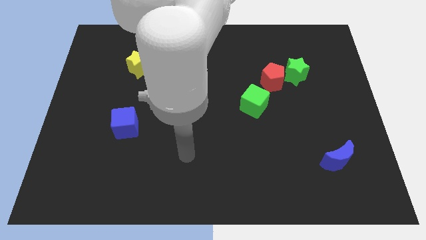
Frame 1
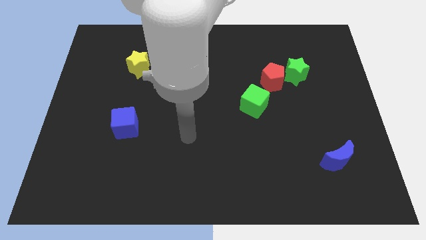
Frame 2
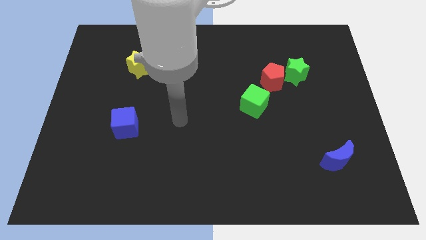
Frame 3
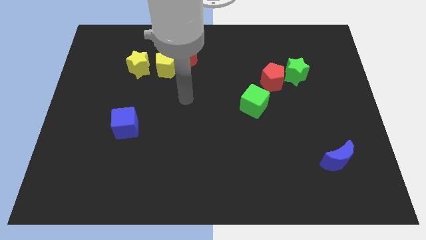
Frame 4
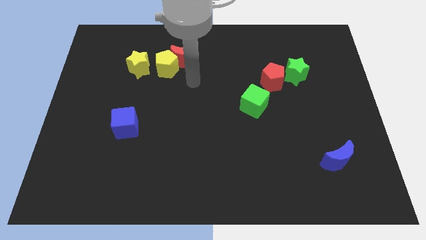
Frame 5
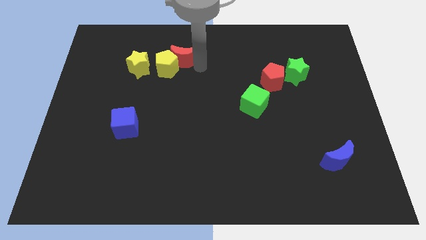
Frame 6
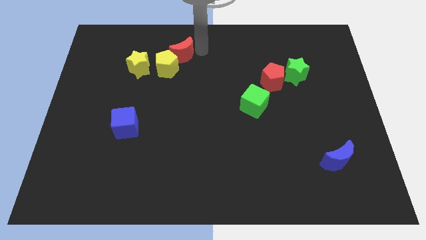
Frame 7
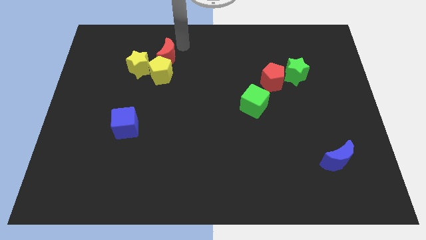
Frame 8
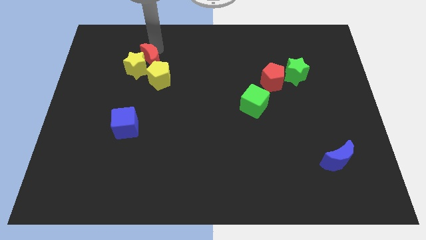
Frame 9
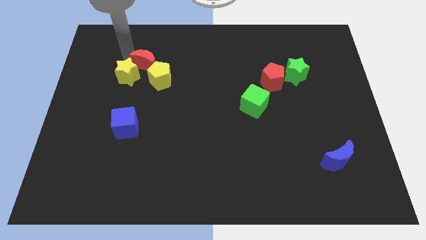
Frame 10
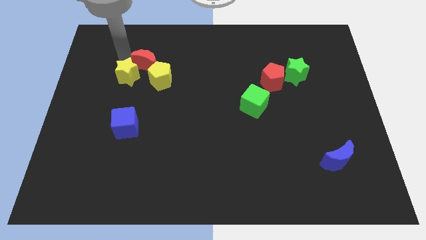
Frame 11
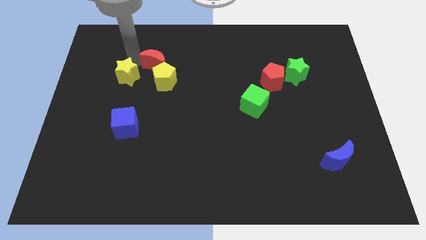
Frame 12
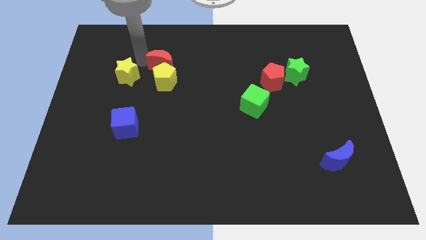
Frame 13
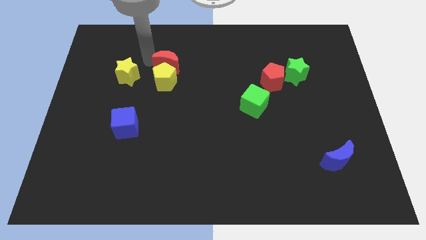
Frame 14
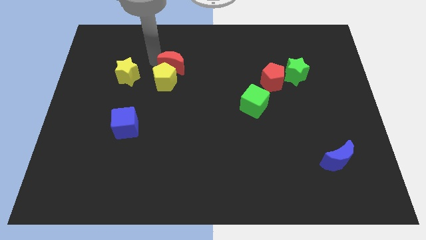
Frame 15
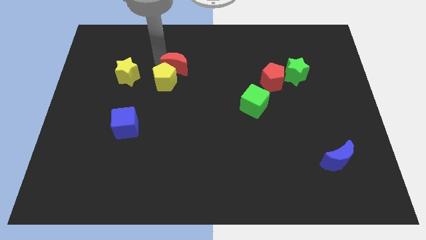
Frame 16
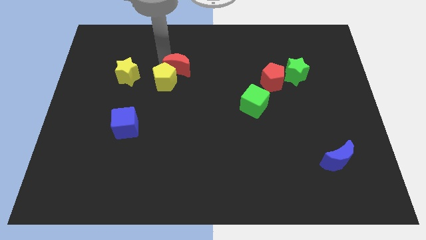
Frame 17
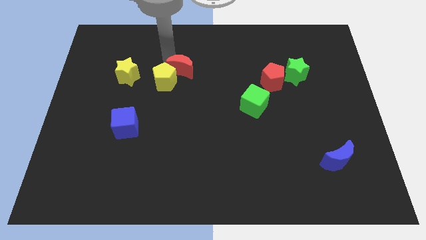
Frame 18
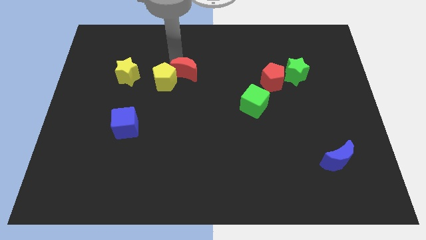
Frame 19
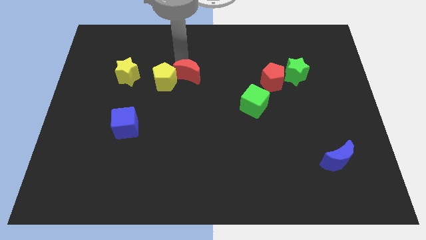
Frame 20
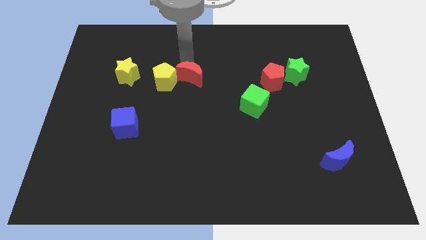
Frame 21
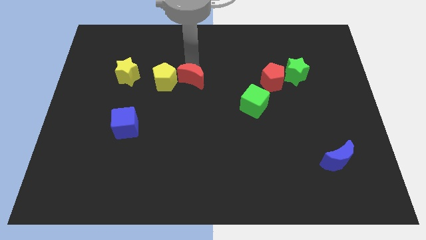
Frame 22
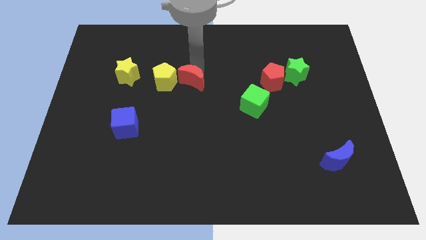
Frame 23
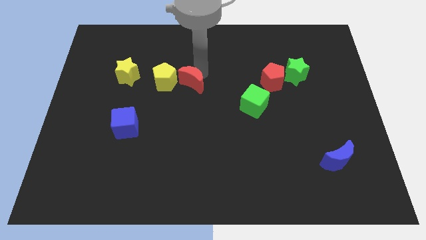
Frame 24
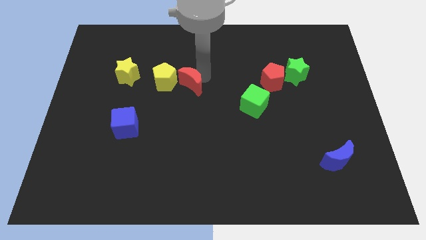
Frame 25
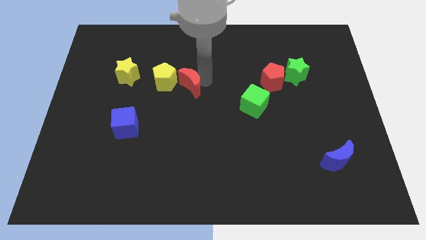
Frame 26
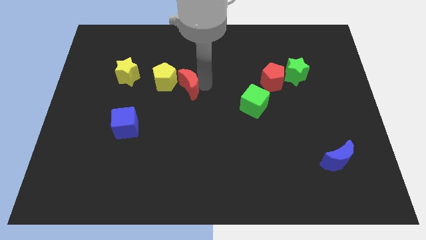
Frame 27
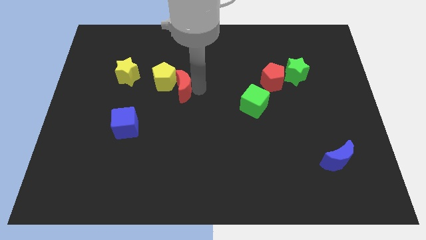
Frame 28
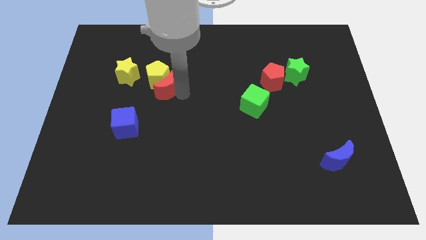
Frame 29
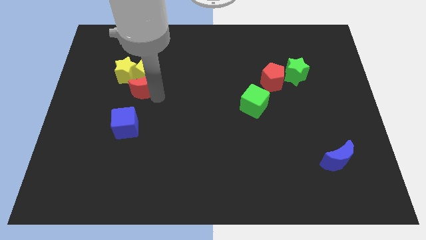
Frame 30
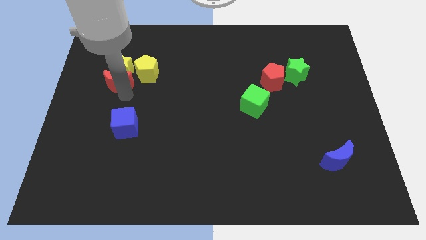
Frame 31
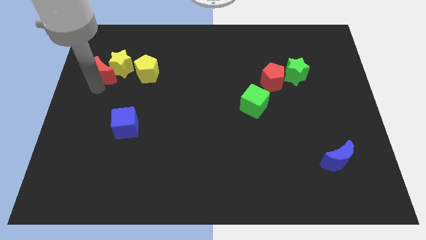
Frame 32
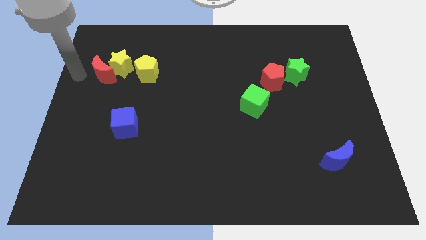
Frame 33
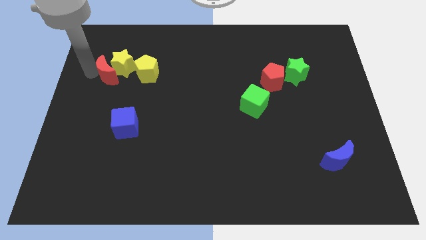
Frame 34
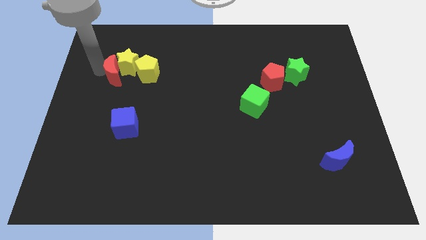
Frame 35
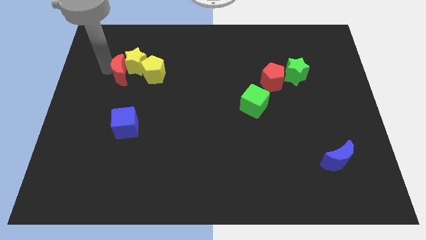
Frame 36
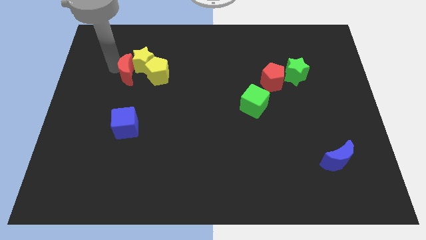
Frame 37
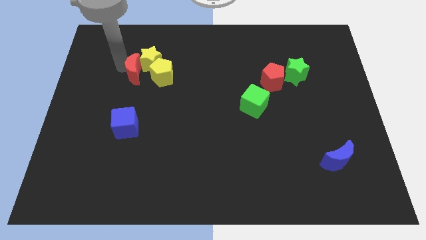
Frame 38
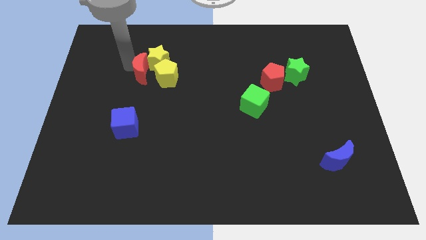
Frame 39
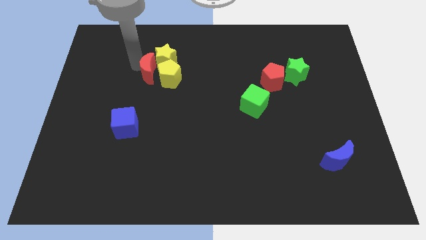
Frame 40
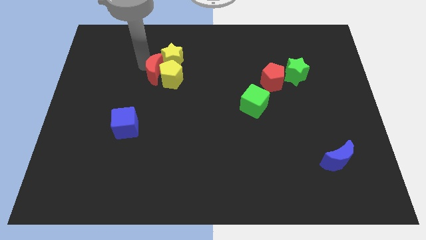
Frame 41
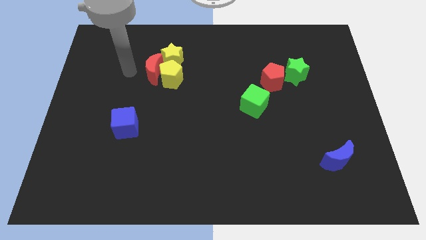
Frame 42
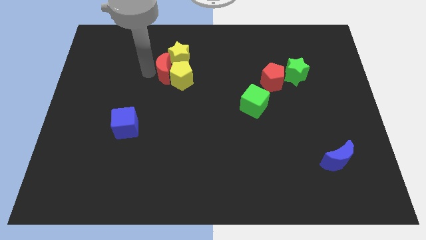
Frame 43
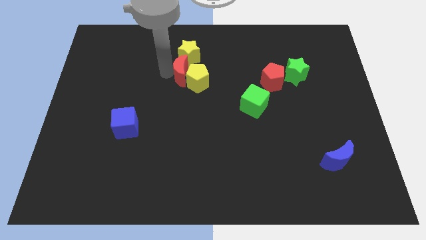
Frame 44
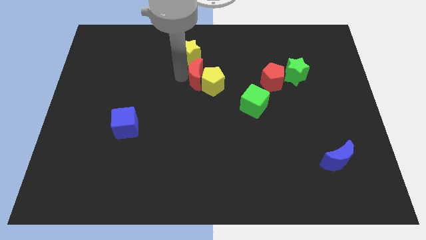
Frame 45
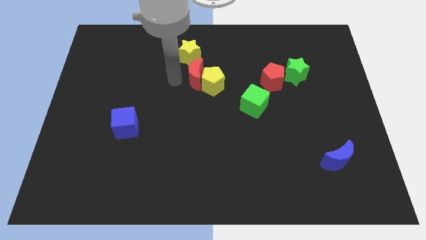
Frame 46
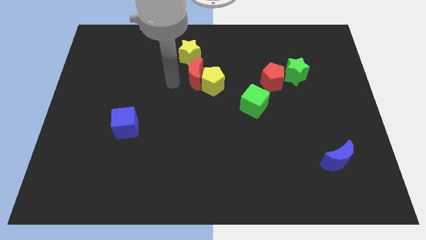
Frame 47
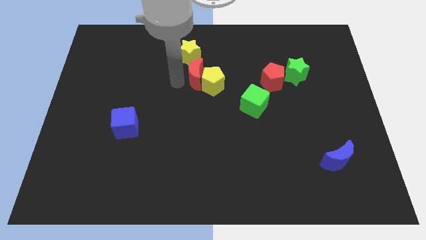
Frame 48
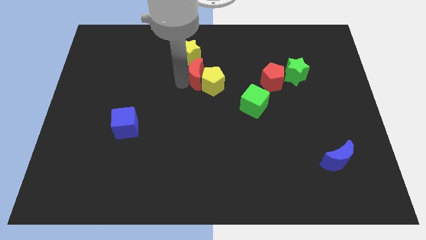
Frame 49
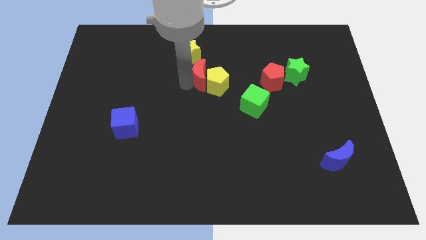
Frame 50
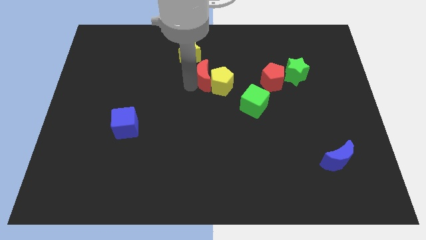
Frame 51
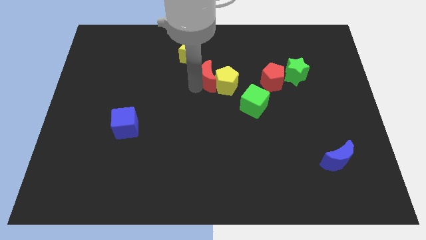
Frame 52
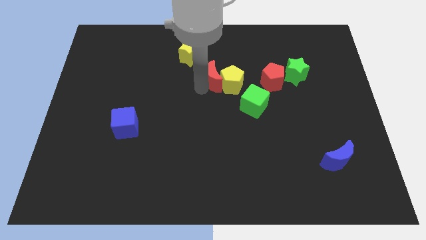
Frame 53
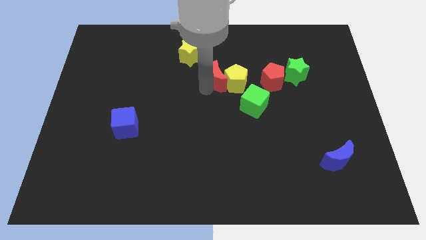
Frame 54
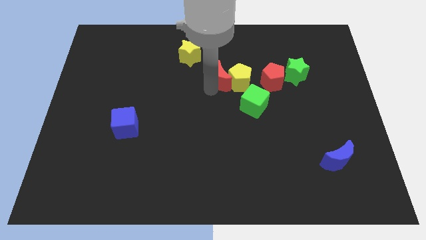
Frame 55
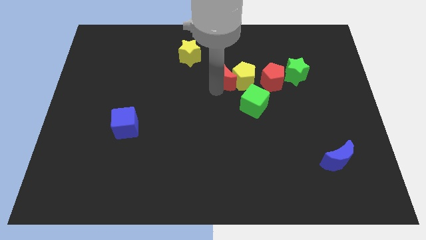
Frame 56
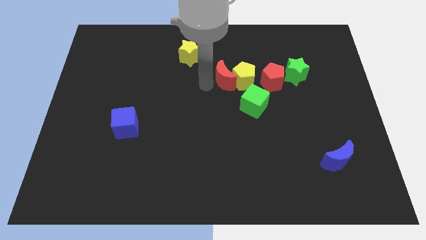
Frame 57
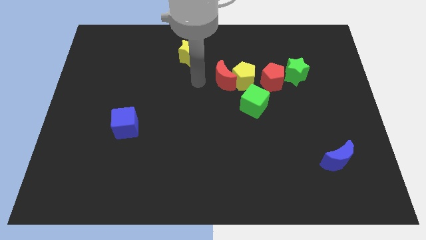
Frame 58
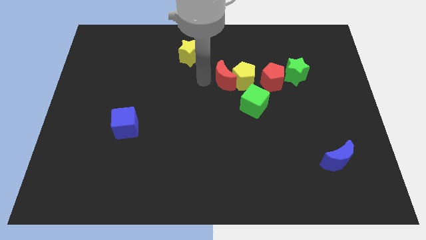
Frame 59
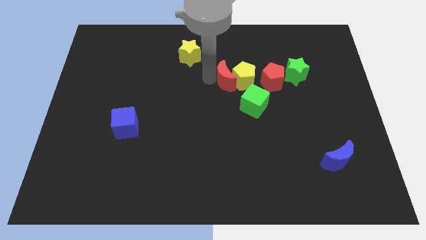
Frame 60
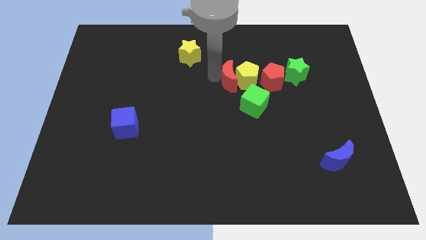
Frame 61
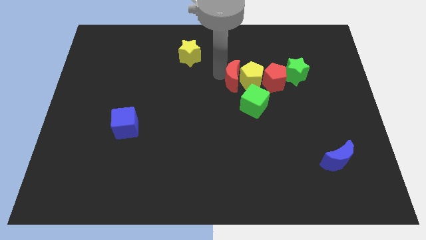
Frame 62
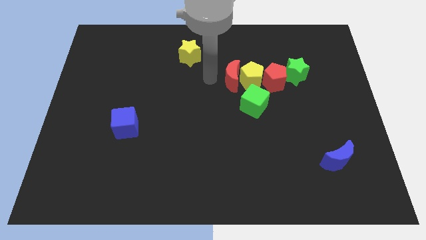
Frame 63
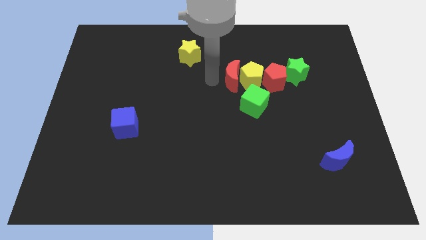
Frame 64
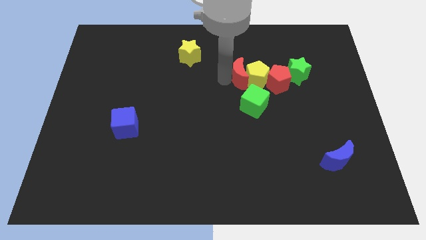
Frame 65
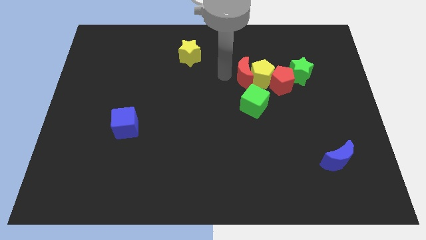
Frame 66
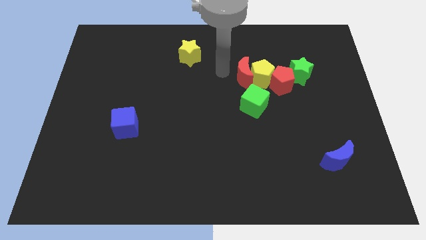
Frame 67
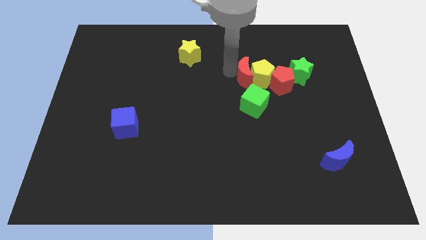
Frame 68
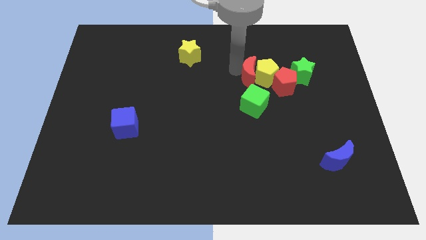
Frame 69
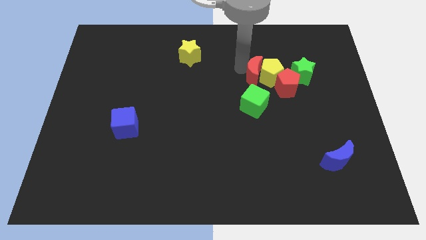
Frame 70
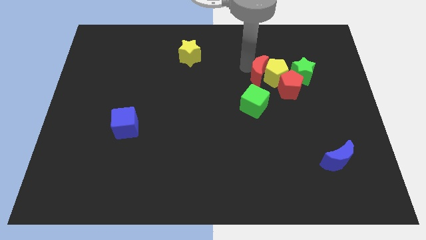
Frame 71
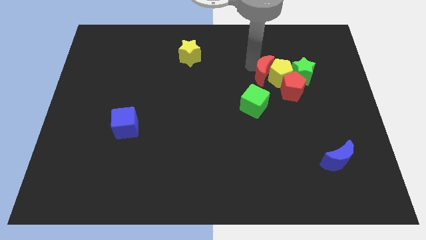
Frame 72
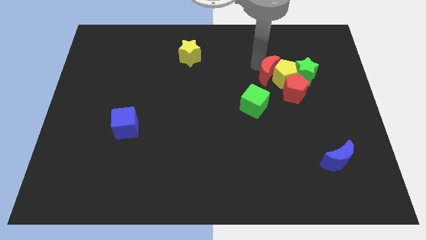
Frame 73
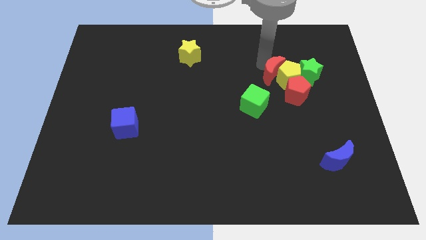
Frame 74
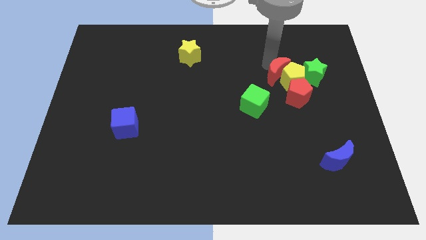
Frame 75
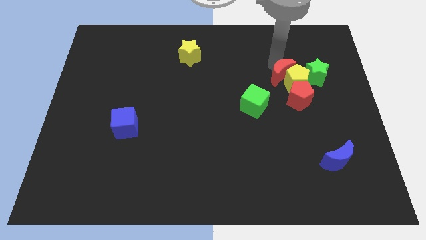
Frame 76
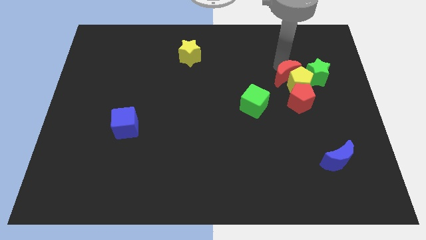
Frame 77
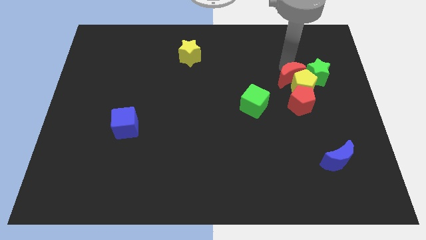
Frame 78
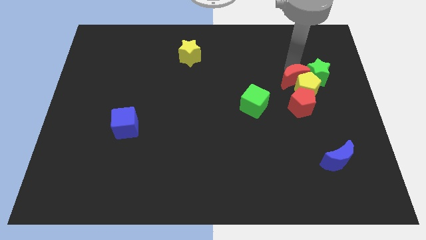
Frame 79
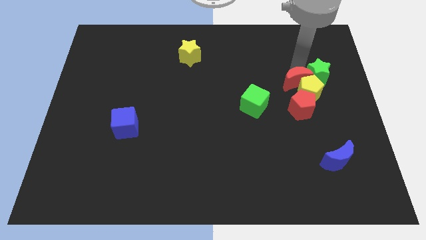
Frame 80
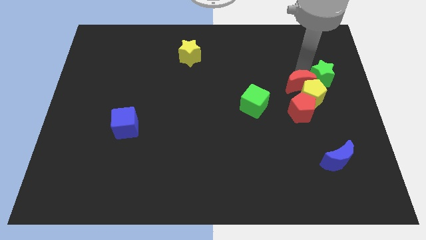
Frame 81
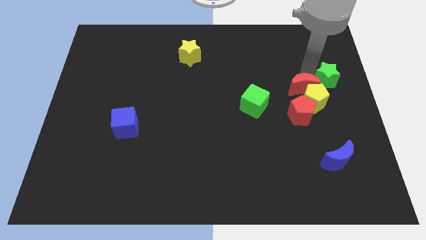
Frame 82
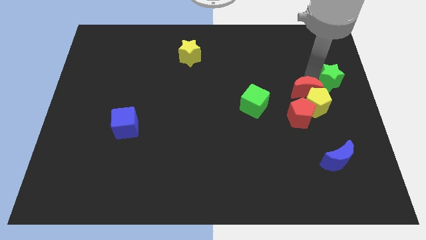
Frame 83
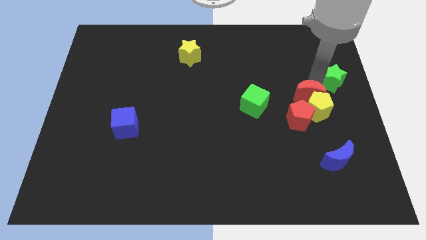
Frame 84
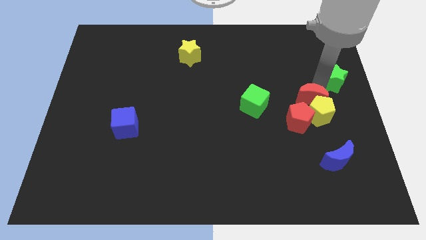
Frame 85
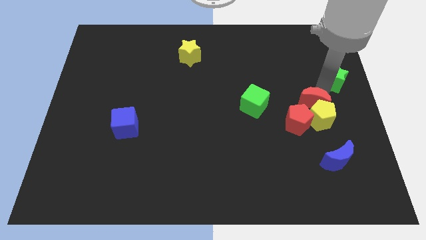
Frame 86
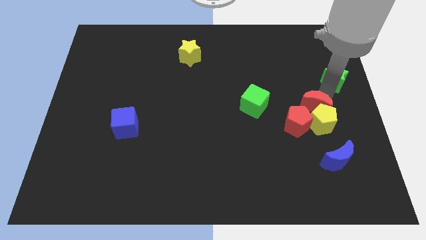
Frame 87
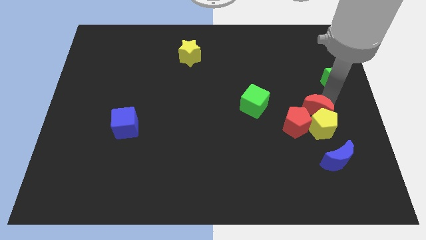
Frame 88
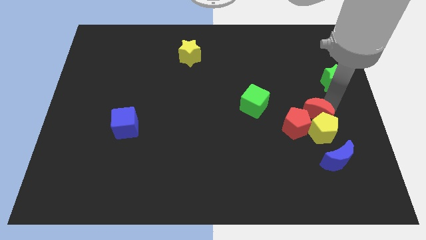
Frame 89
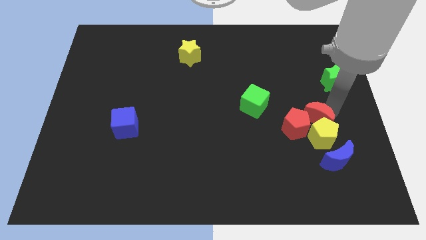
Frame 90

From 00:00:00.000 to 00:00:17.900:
put the red moon to the red pentagon
